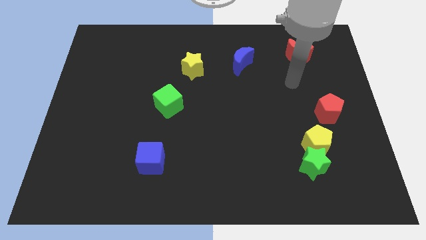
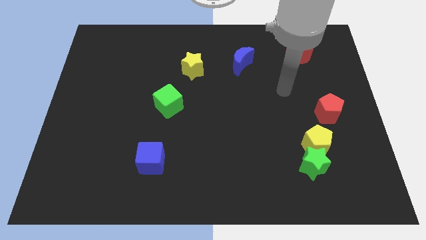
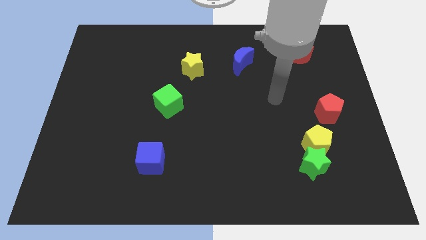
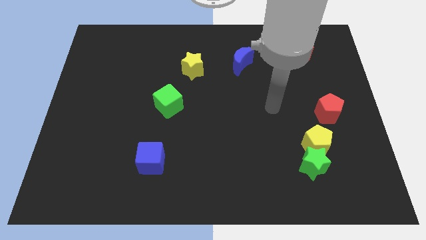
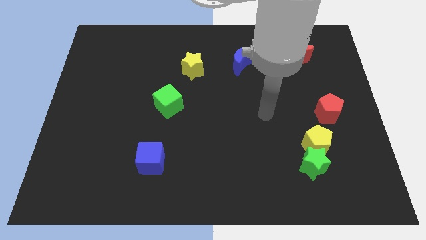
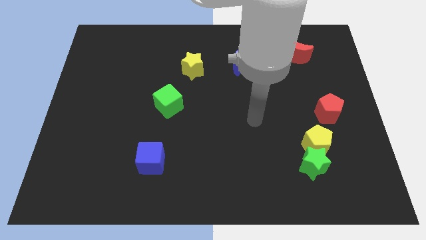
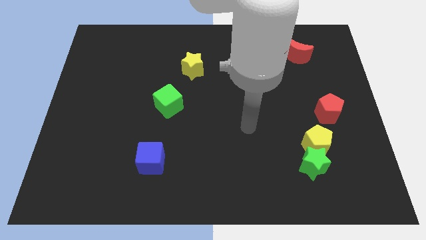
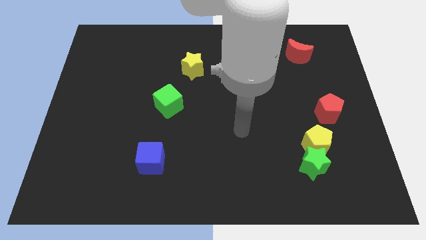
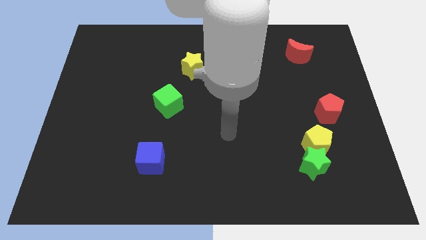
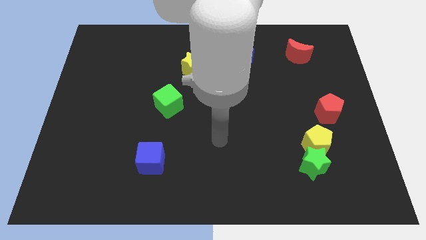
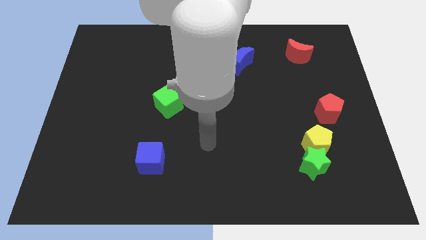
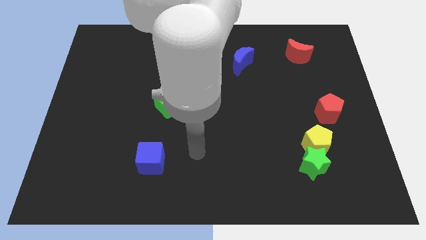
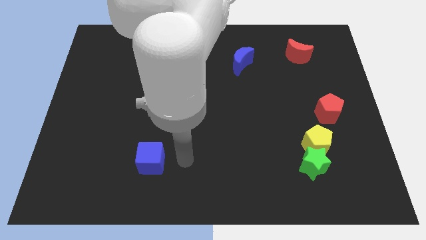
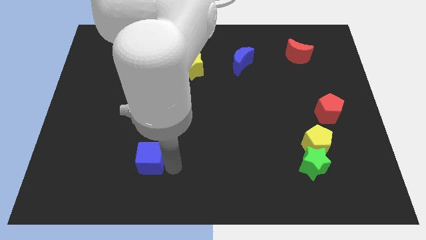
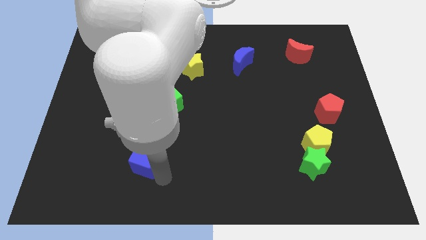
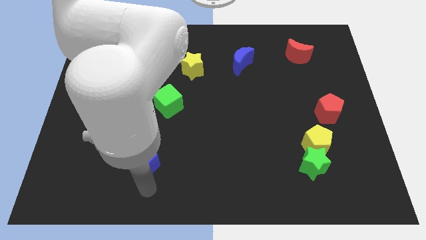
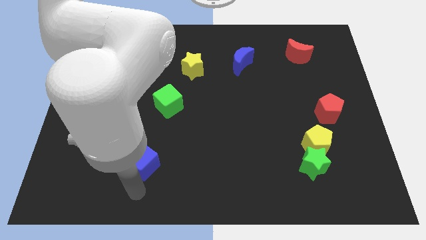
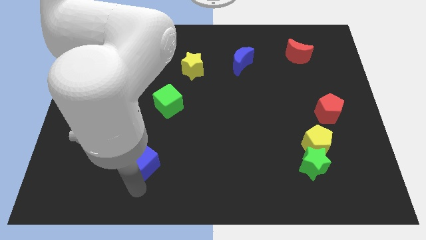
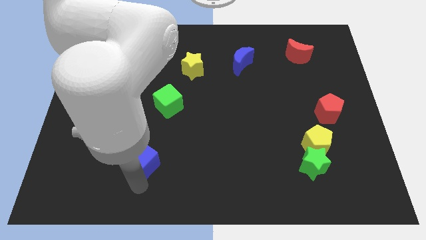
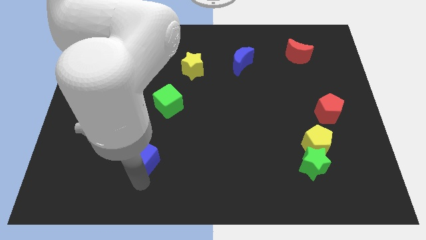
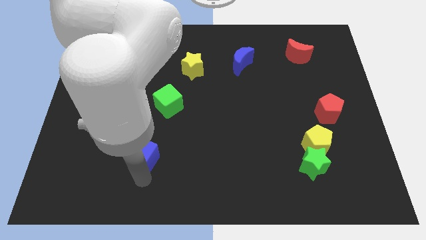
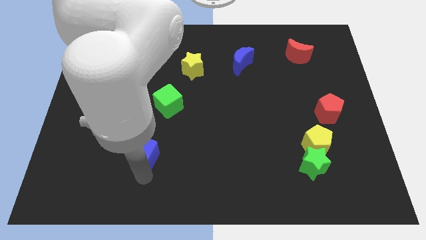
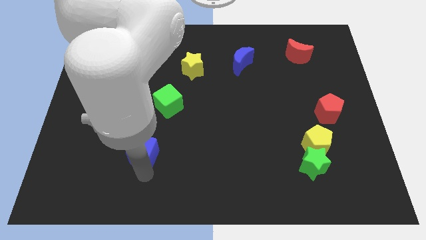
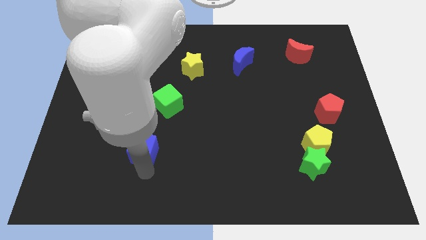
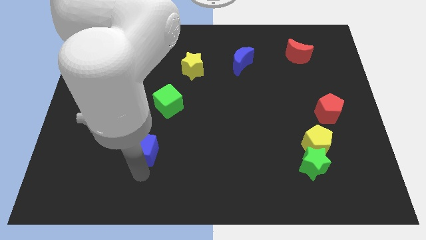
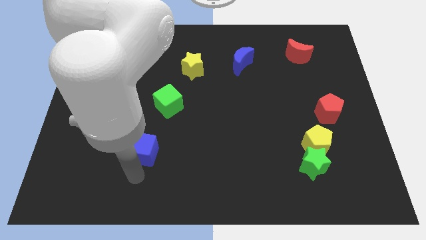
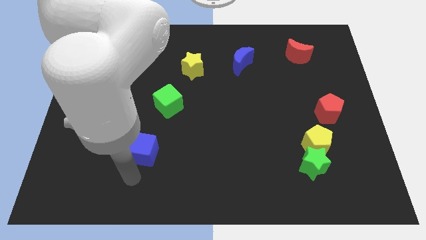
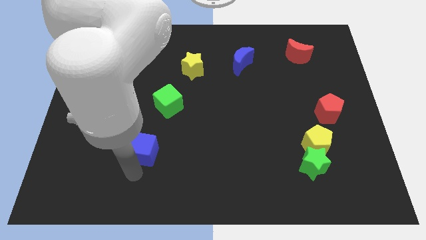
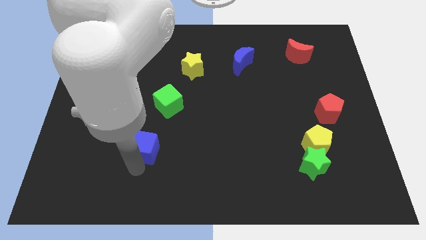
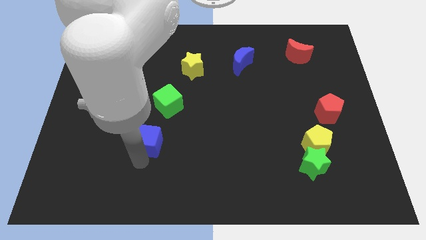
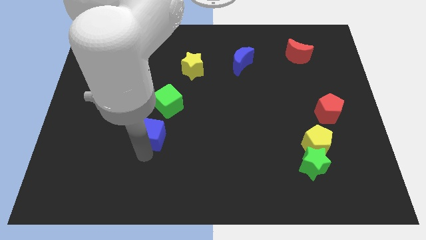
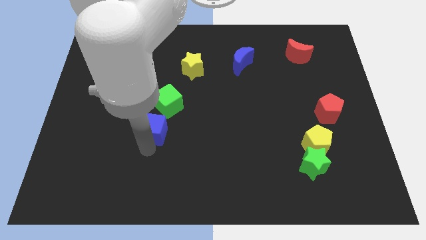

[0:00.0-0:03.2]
slide the blue cube somewhat upwards

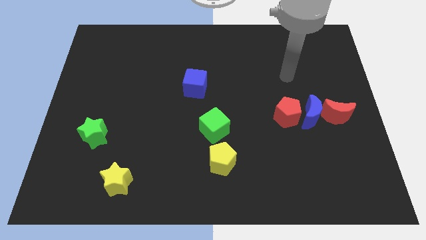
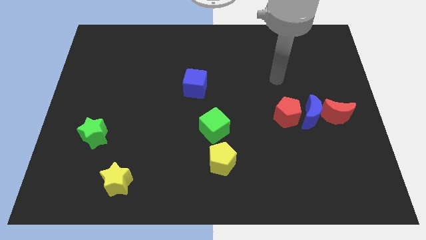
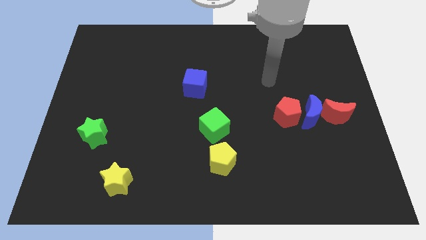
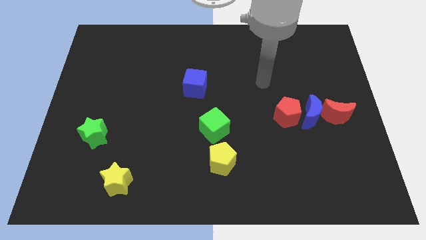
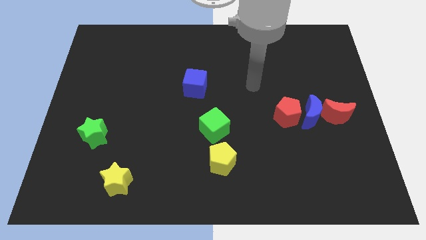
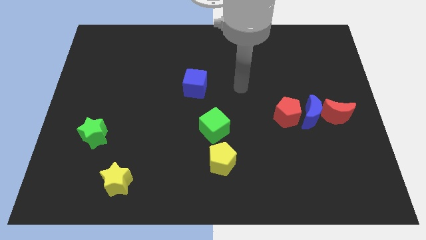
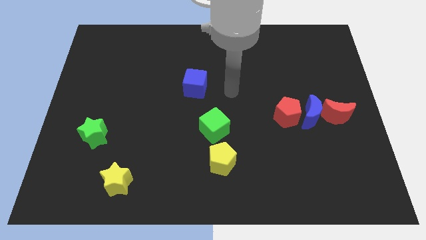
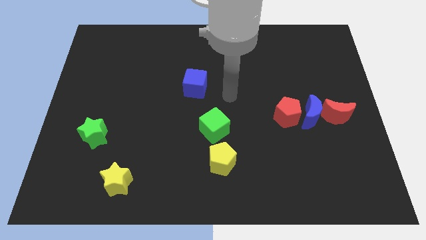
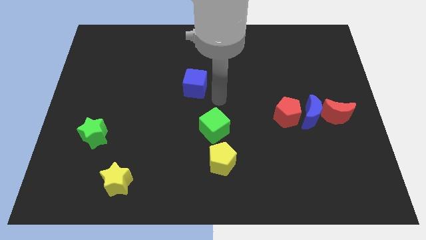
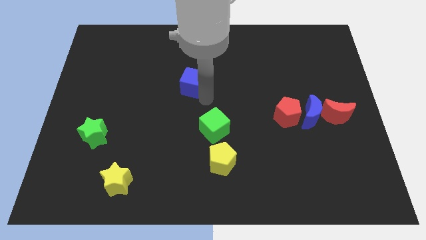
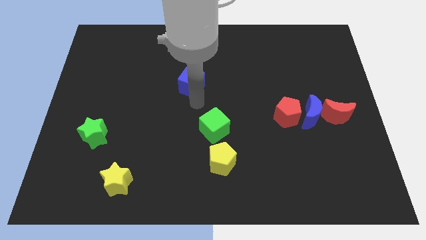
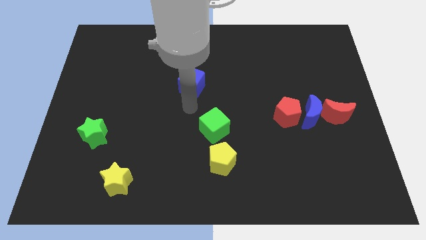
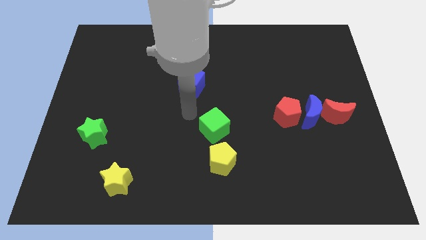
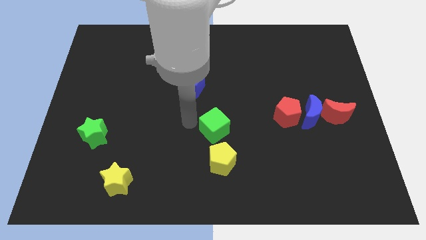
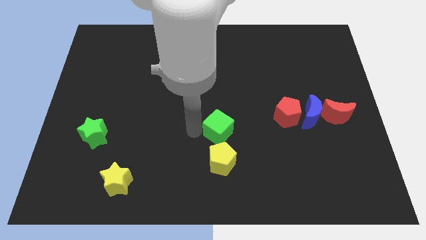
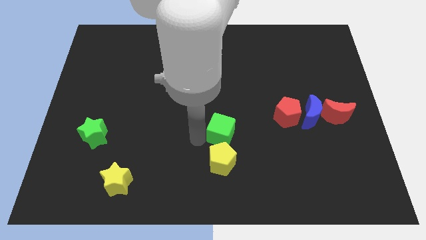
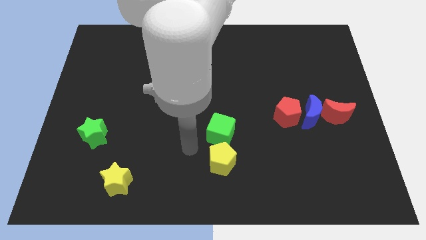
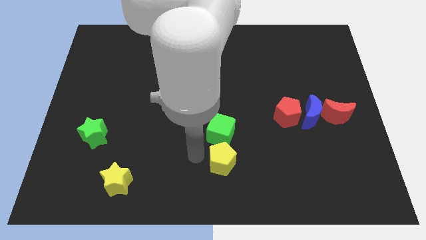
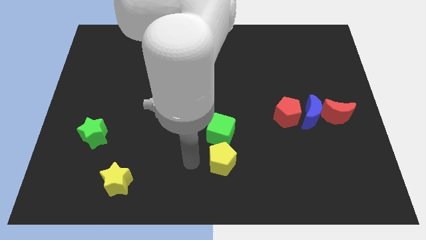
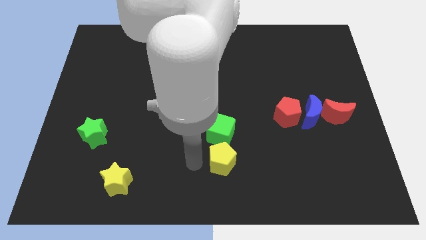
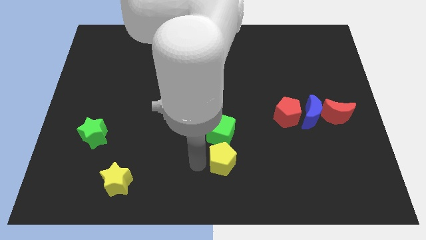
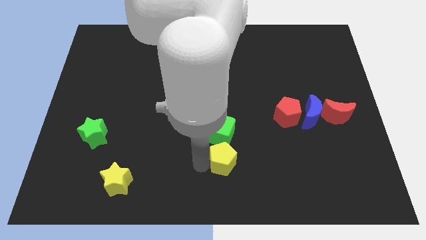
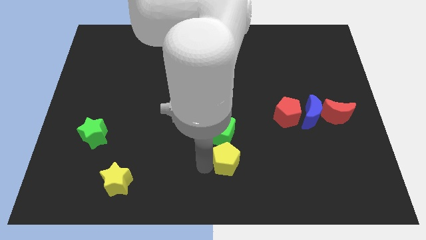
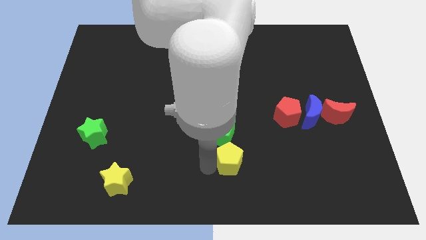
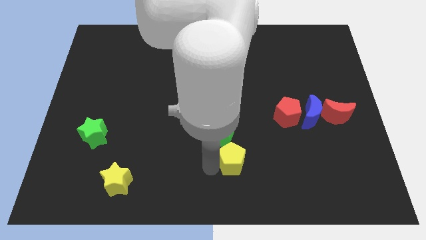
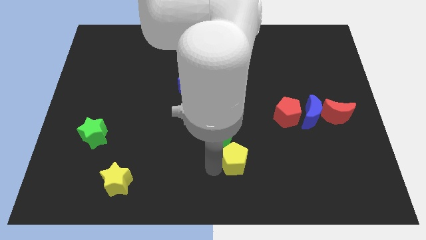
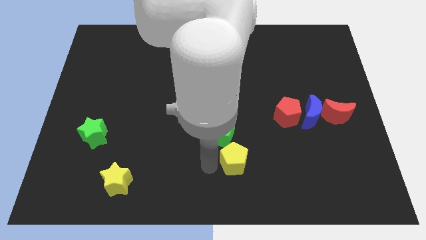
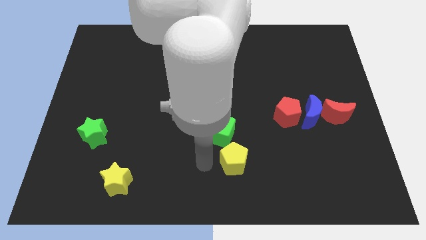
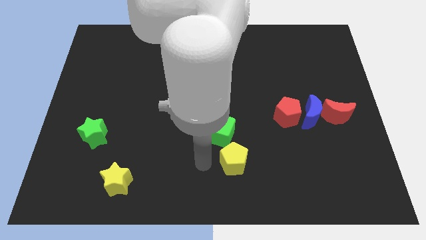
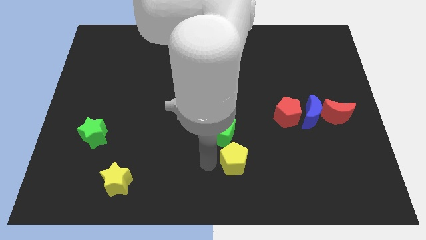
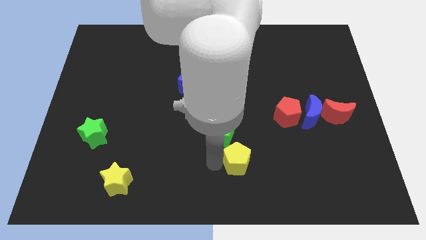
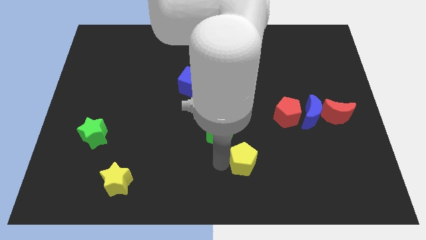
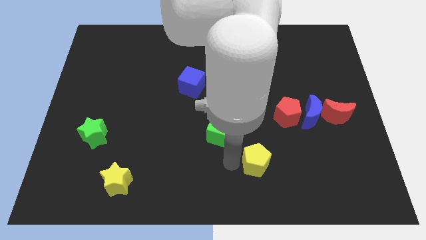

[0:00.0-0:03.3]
push the yellow pentagon to the right somewhat

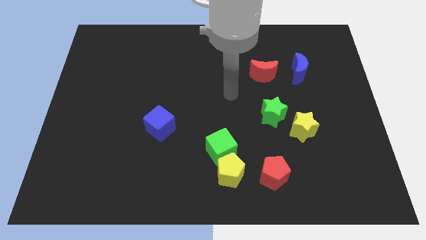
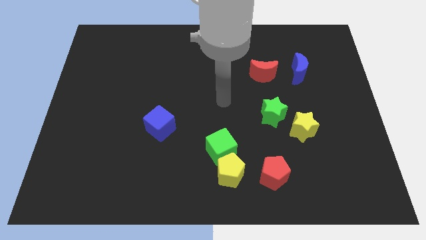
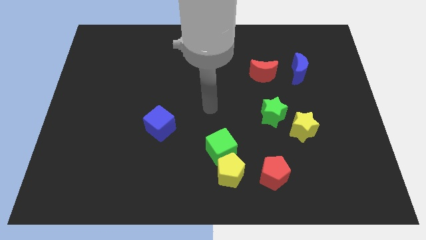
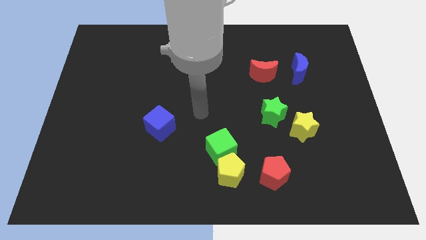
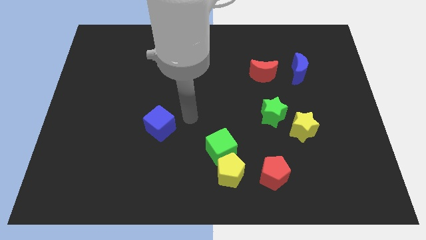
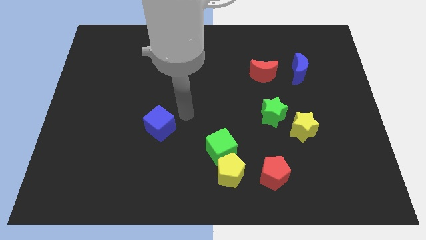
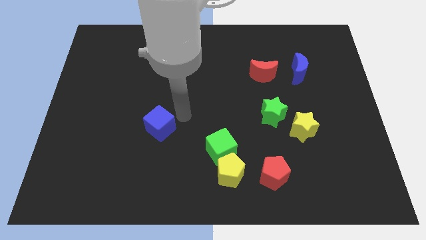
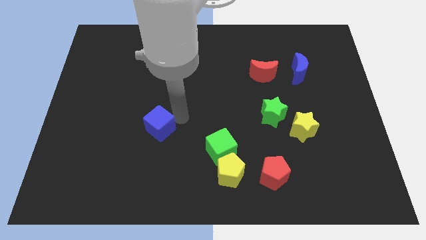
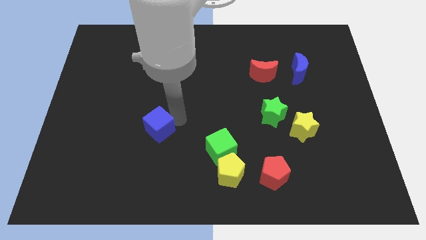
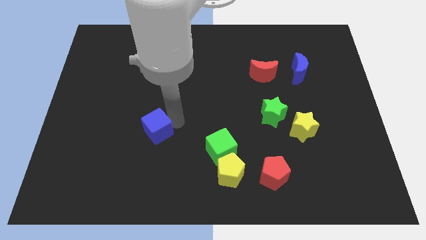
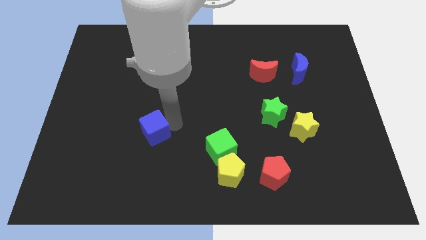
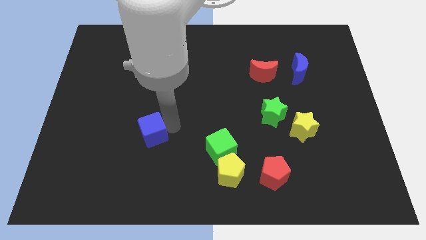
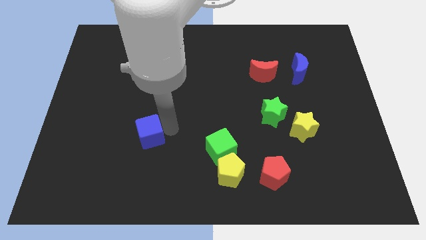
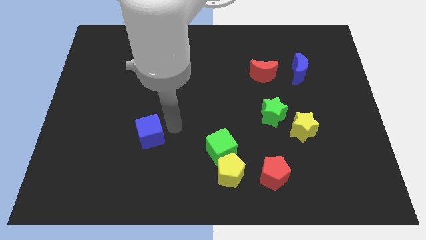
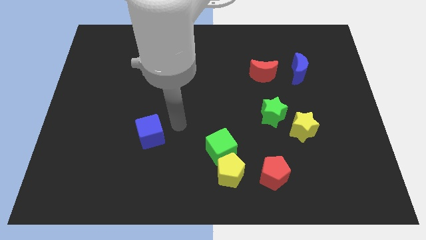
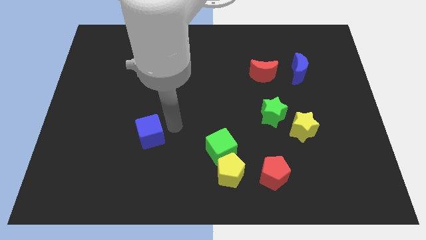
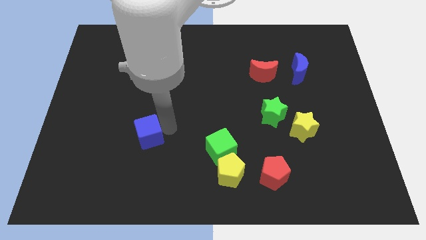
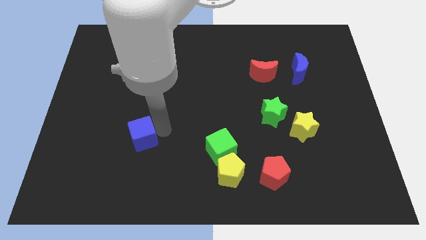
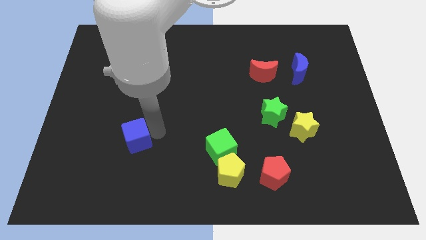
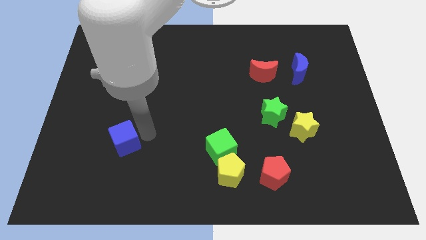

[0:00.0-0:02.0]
move the blue cube down and then left a bit
